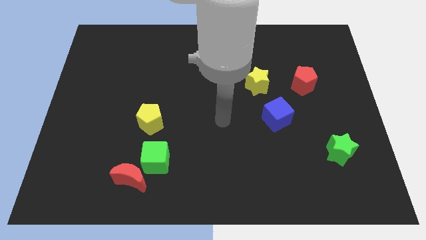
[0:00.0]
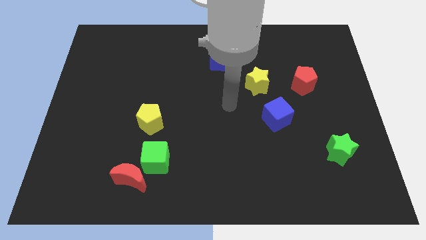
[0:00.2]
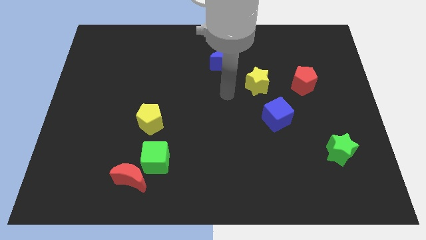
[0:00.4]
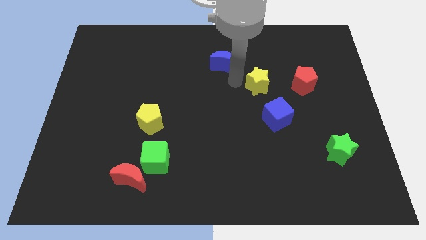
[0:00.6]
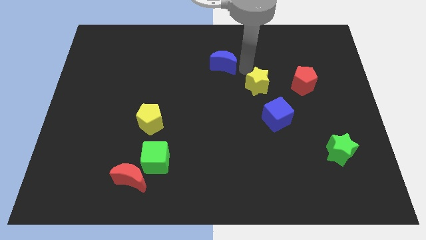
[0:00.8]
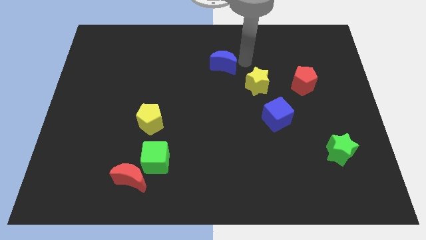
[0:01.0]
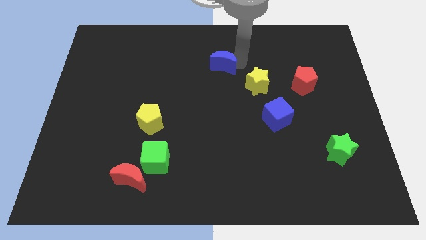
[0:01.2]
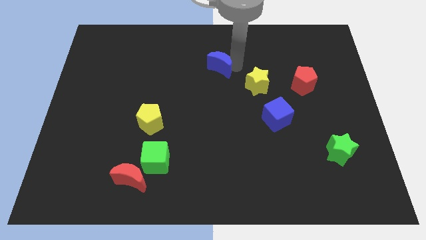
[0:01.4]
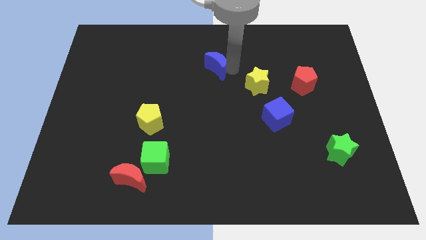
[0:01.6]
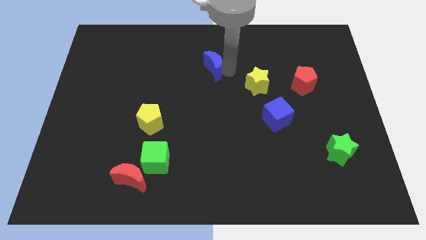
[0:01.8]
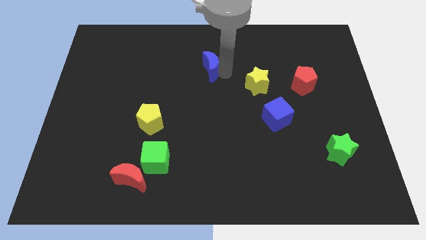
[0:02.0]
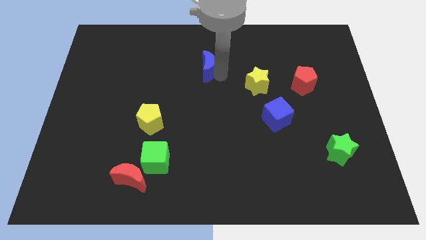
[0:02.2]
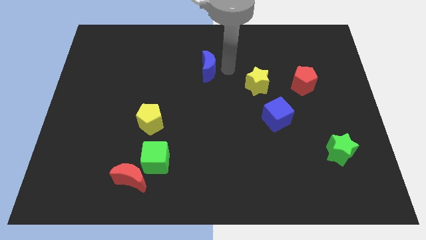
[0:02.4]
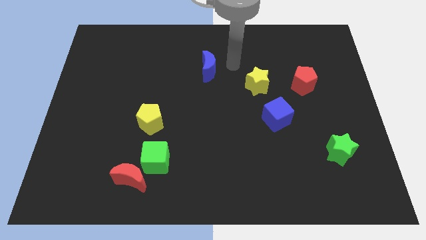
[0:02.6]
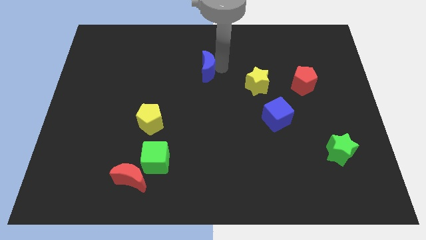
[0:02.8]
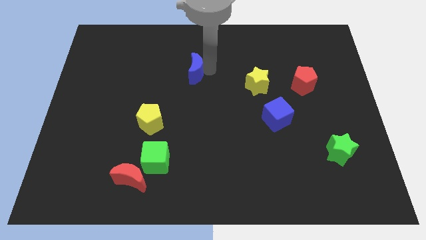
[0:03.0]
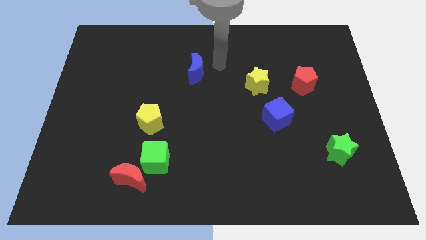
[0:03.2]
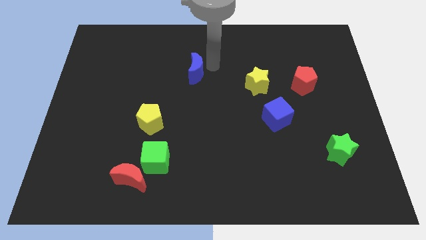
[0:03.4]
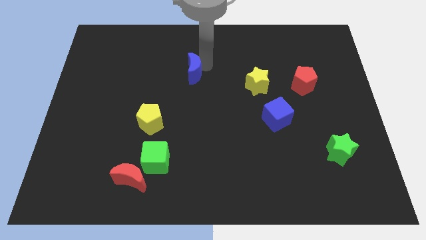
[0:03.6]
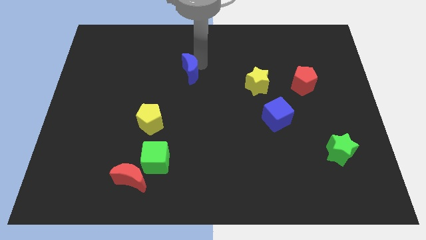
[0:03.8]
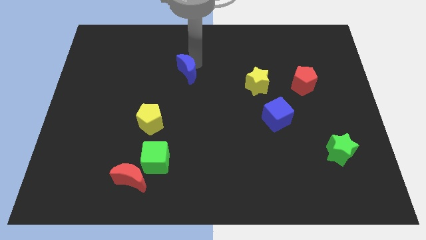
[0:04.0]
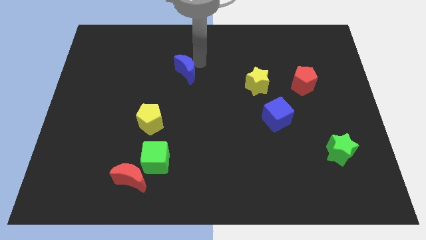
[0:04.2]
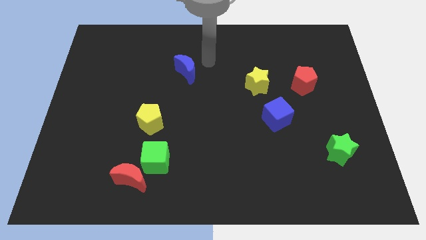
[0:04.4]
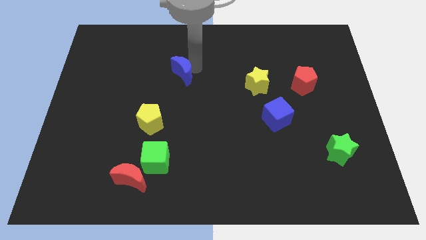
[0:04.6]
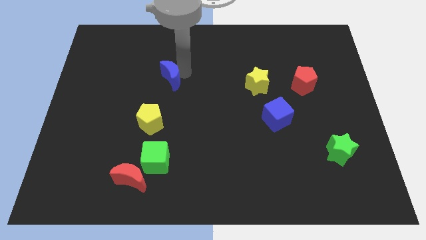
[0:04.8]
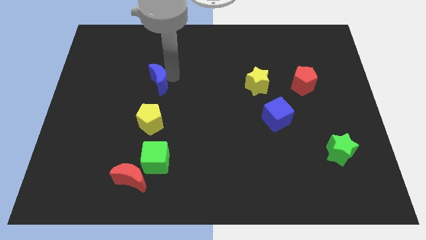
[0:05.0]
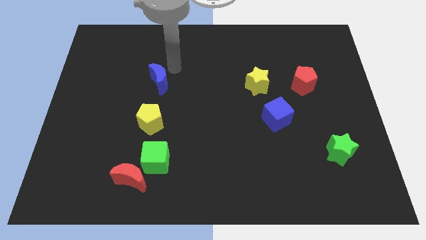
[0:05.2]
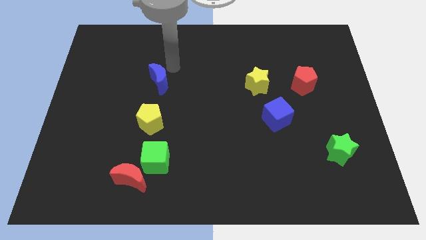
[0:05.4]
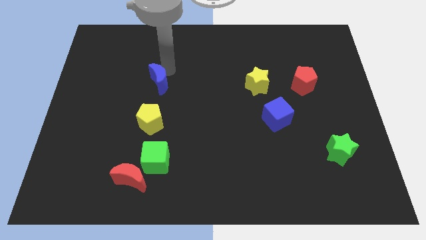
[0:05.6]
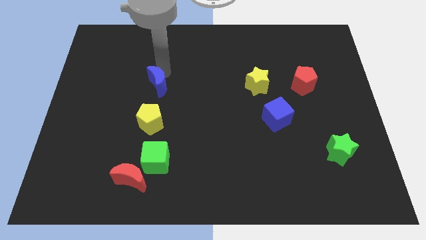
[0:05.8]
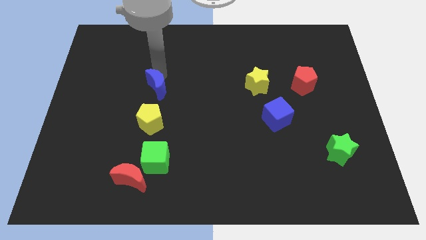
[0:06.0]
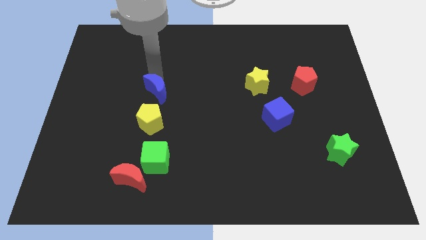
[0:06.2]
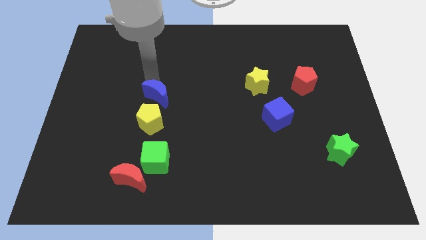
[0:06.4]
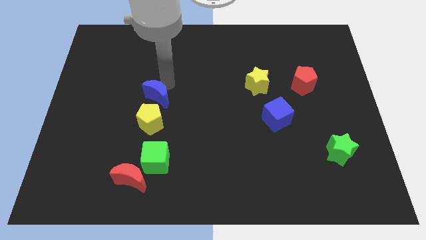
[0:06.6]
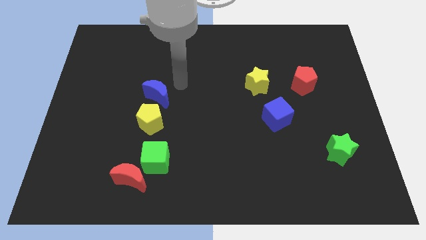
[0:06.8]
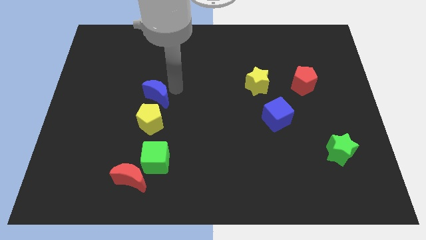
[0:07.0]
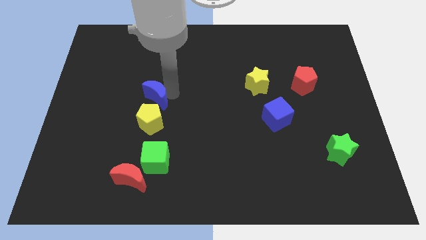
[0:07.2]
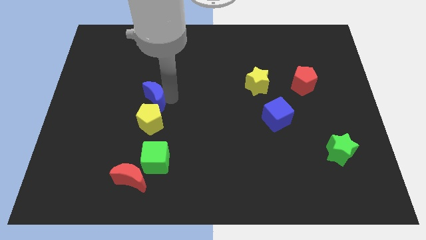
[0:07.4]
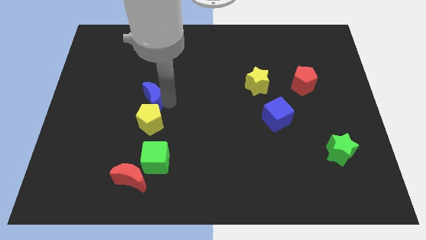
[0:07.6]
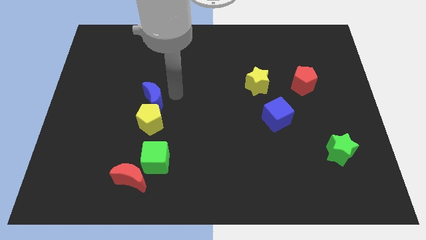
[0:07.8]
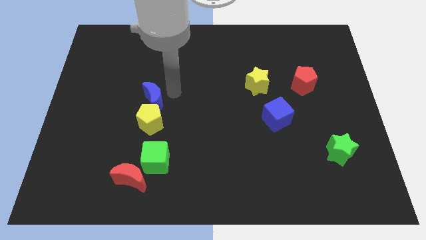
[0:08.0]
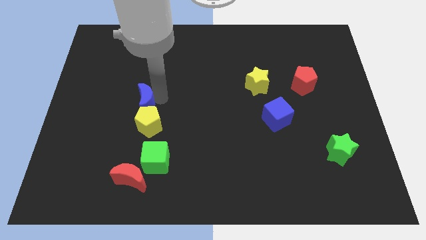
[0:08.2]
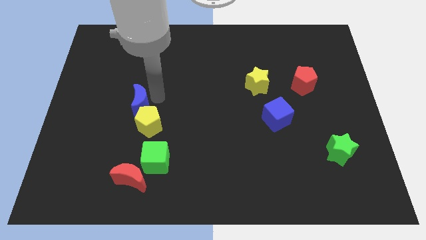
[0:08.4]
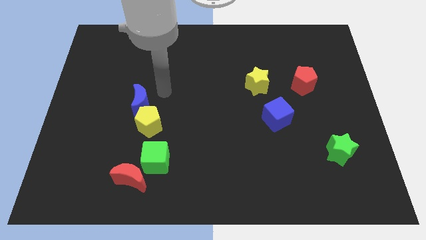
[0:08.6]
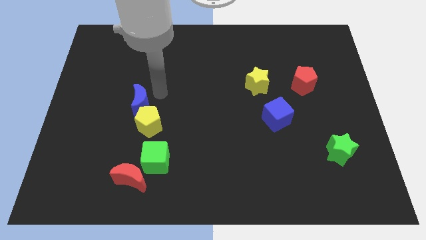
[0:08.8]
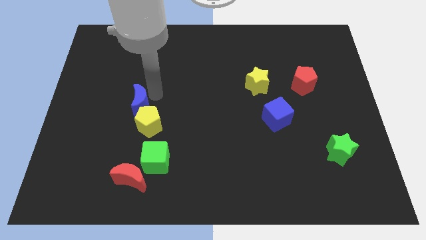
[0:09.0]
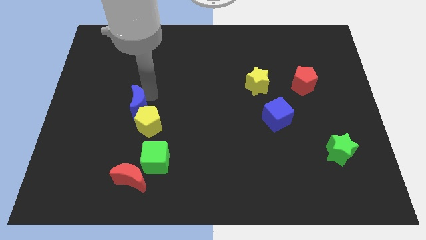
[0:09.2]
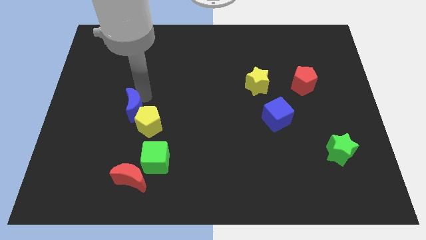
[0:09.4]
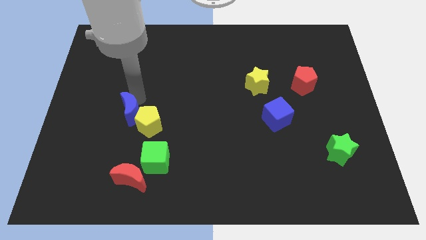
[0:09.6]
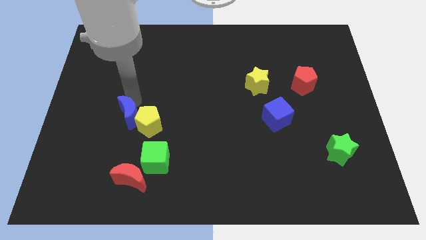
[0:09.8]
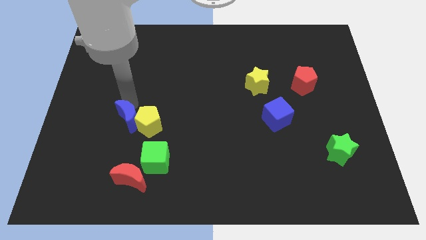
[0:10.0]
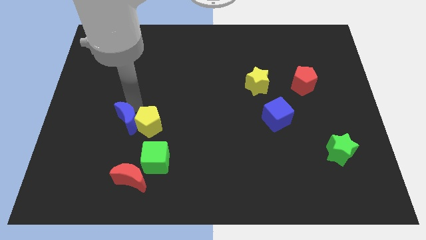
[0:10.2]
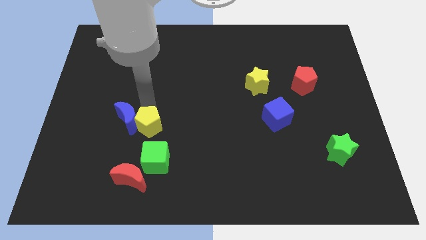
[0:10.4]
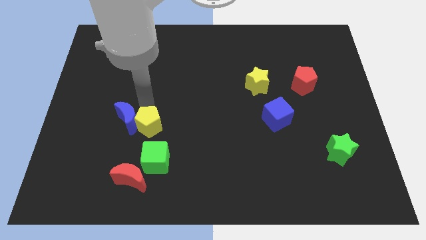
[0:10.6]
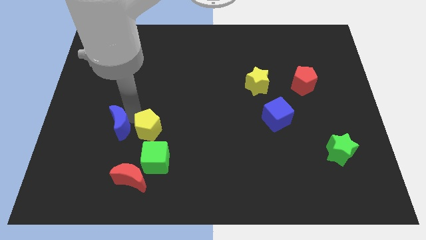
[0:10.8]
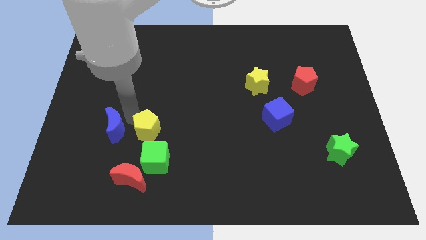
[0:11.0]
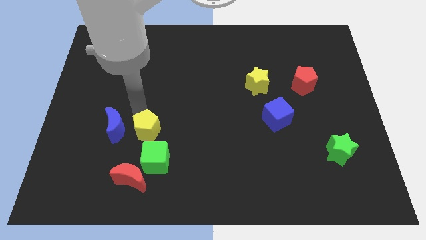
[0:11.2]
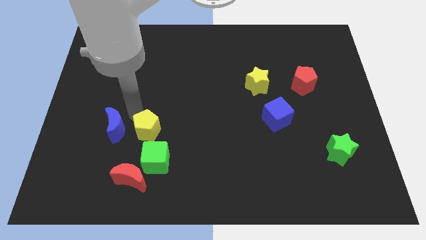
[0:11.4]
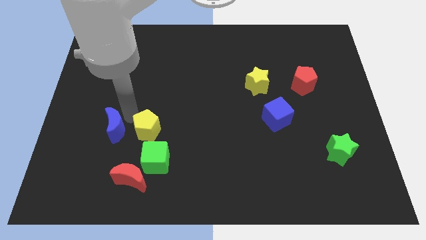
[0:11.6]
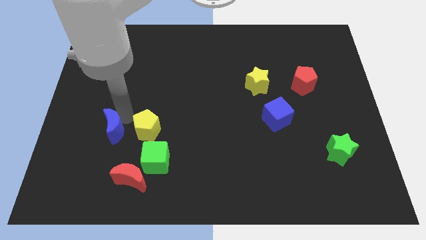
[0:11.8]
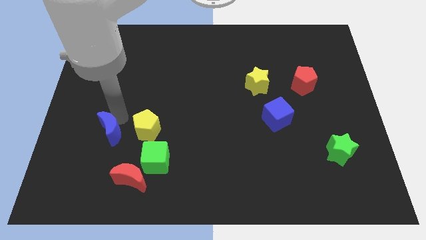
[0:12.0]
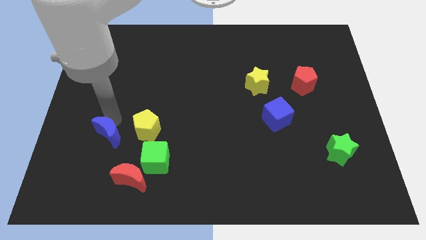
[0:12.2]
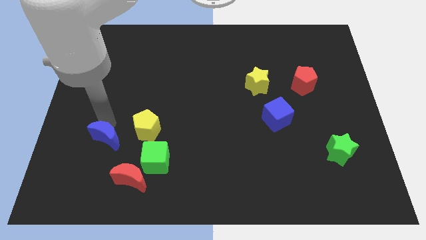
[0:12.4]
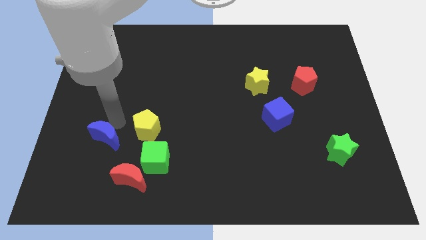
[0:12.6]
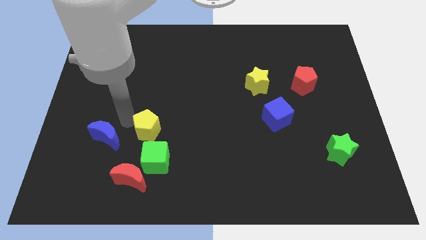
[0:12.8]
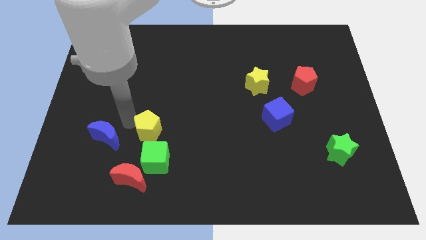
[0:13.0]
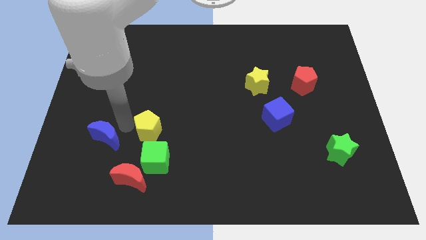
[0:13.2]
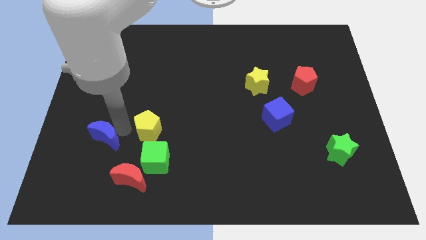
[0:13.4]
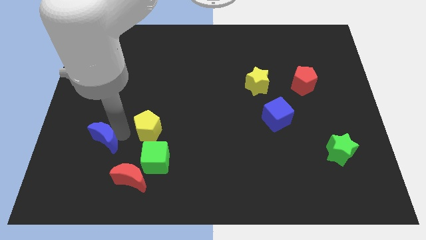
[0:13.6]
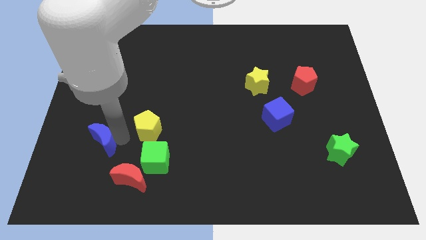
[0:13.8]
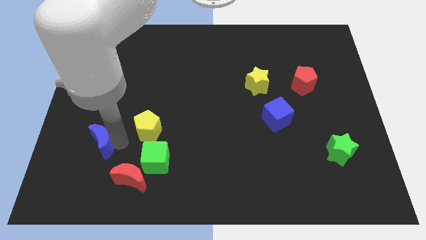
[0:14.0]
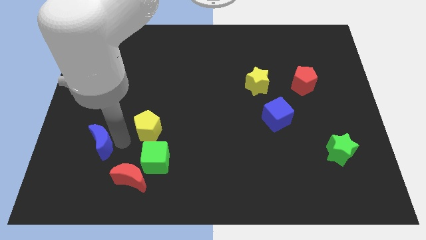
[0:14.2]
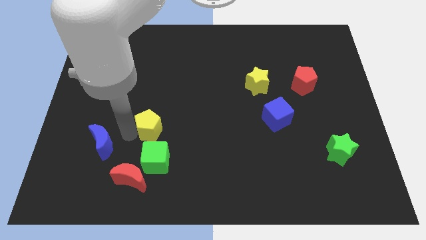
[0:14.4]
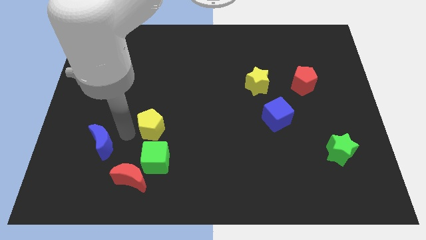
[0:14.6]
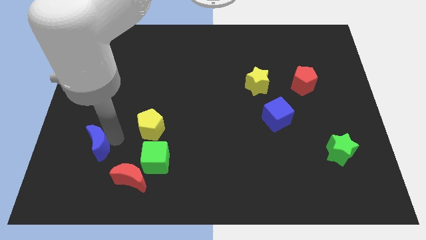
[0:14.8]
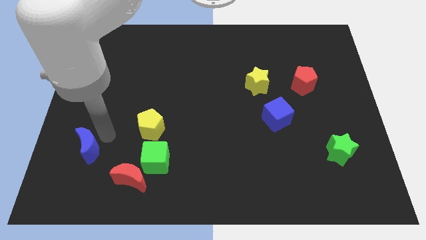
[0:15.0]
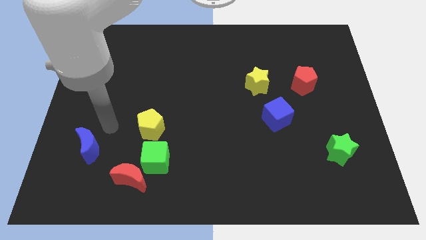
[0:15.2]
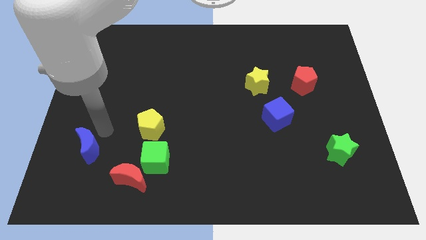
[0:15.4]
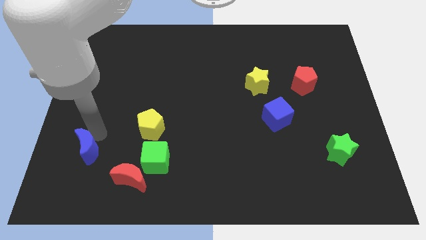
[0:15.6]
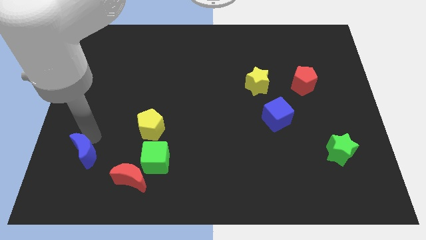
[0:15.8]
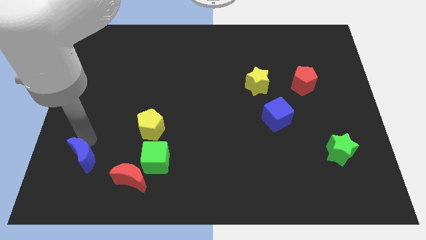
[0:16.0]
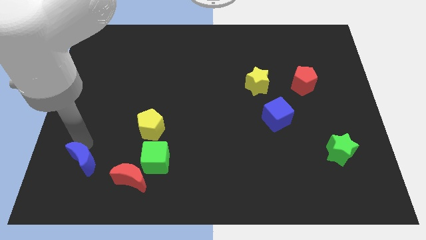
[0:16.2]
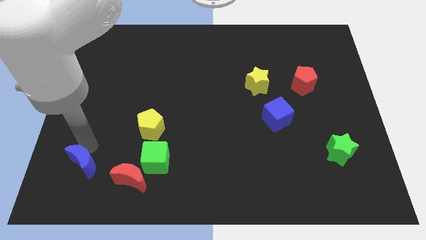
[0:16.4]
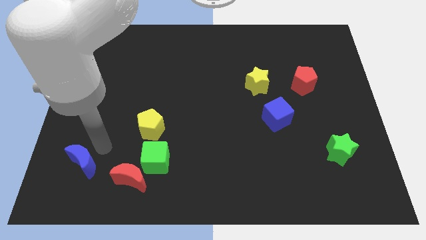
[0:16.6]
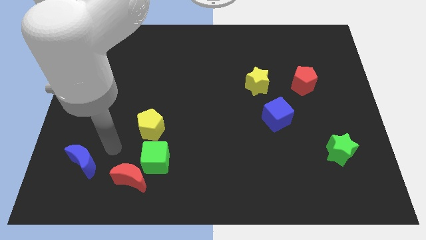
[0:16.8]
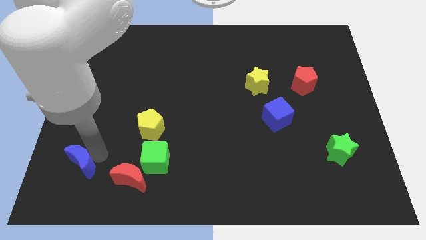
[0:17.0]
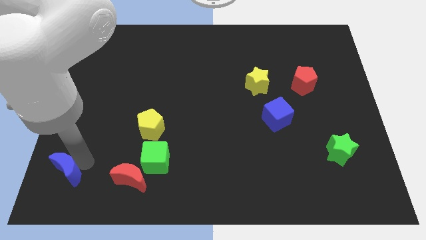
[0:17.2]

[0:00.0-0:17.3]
slide the blue moon to the bottom left of the board
